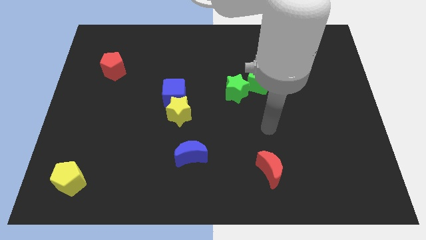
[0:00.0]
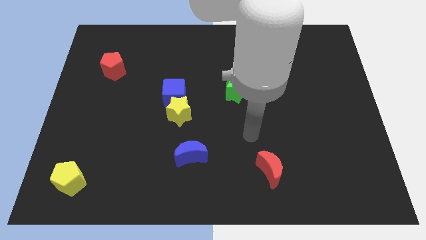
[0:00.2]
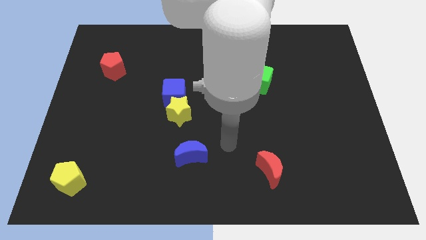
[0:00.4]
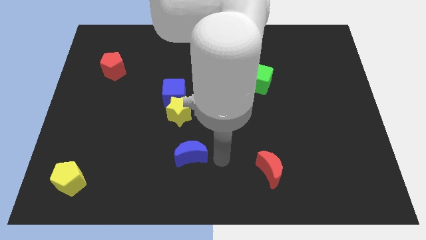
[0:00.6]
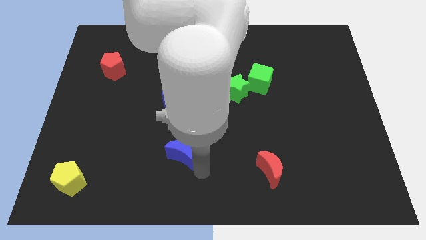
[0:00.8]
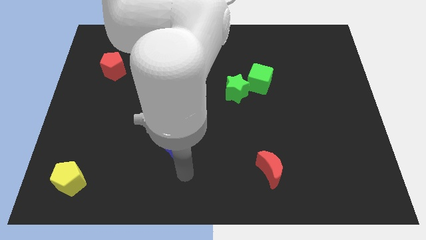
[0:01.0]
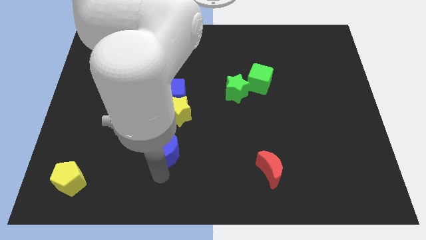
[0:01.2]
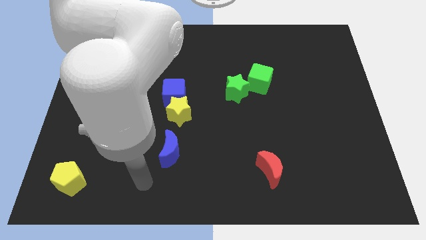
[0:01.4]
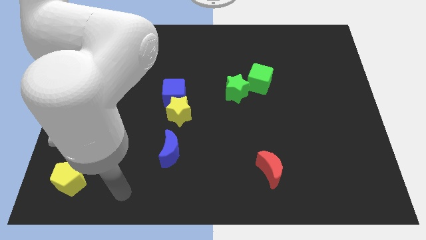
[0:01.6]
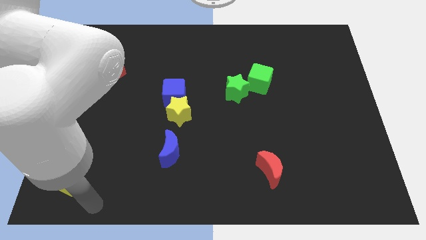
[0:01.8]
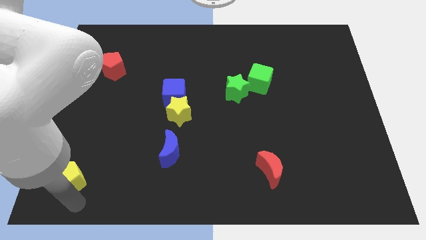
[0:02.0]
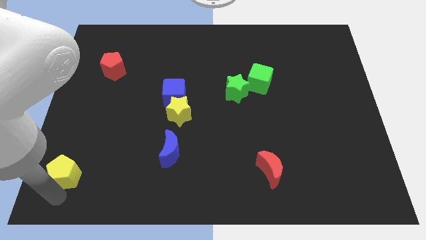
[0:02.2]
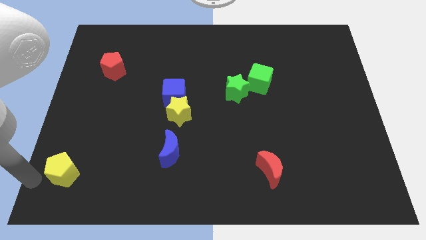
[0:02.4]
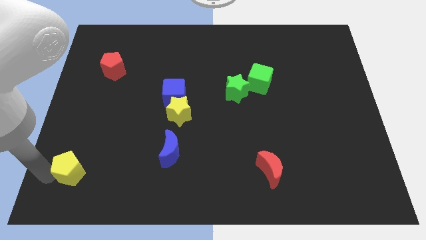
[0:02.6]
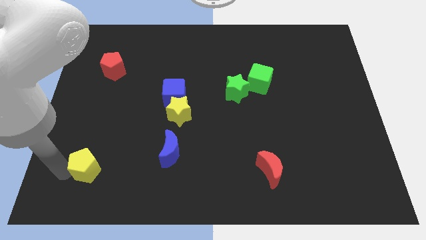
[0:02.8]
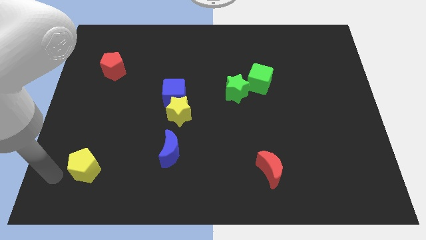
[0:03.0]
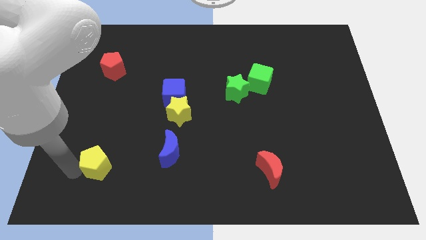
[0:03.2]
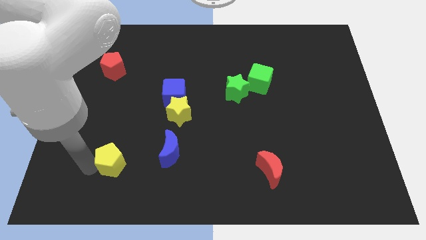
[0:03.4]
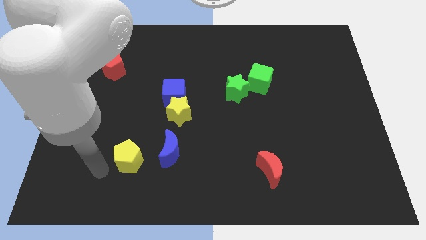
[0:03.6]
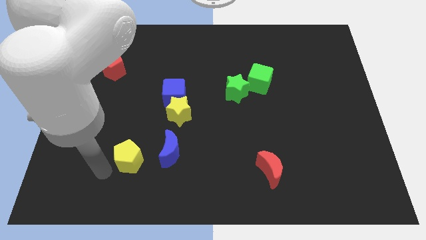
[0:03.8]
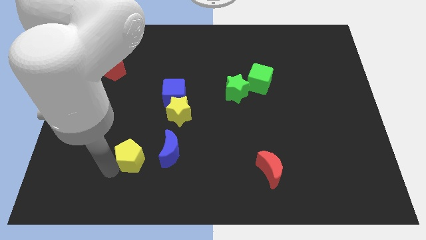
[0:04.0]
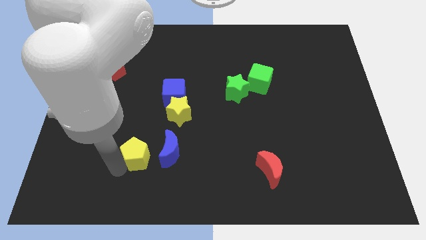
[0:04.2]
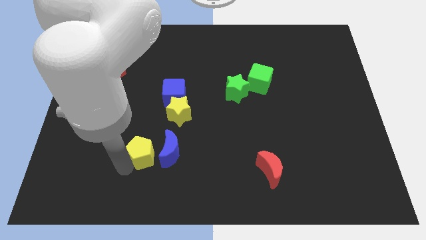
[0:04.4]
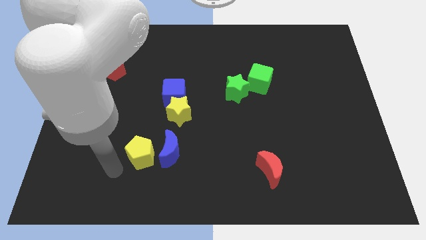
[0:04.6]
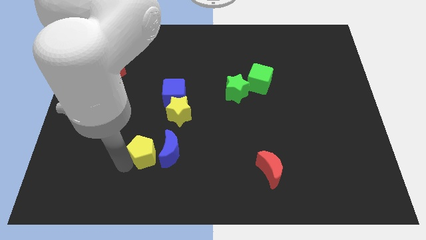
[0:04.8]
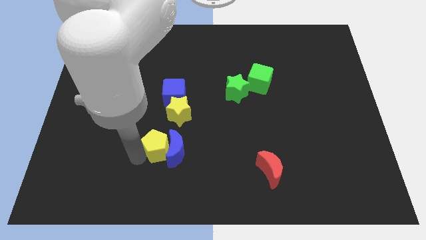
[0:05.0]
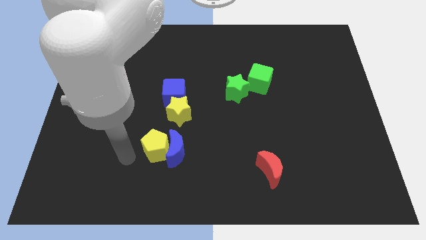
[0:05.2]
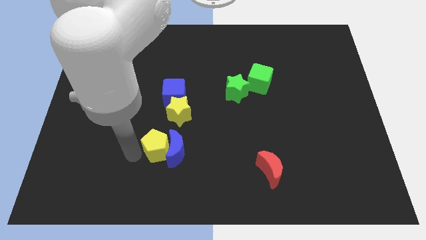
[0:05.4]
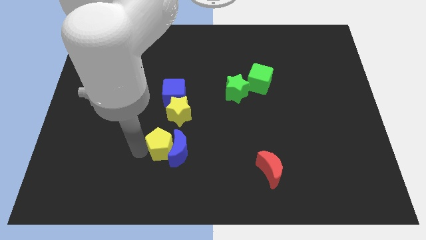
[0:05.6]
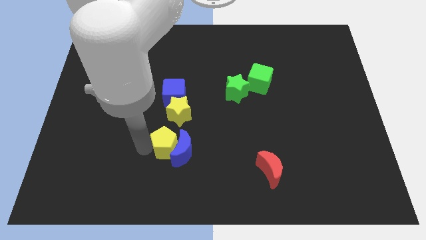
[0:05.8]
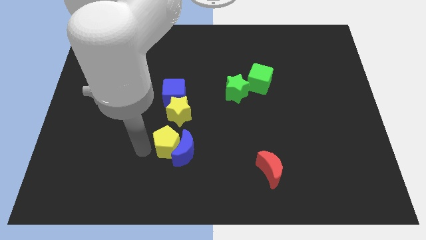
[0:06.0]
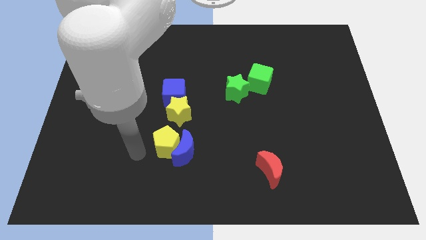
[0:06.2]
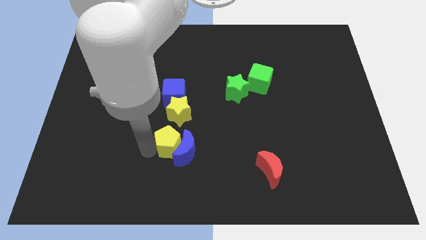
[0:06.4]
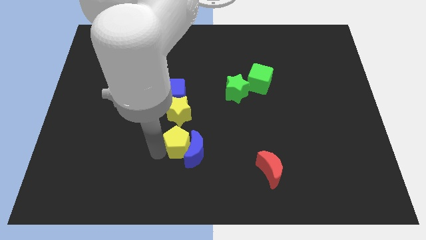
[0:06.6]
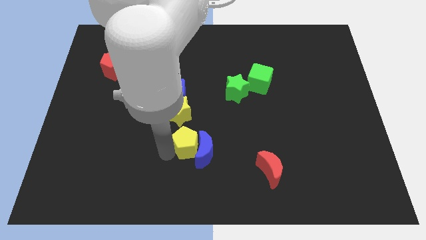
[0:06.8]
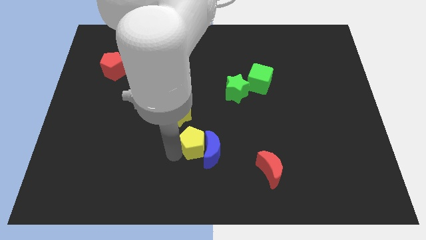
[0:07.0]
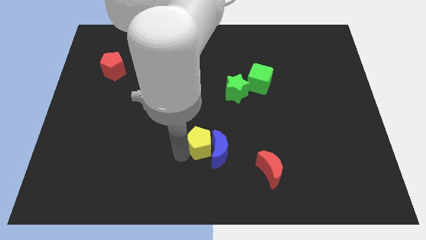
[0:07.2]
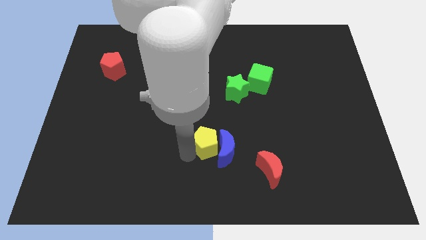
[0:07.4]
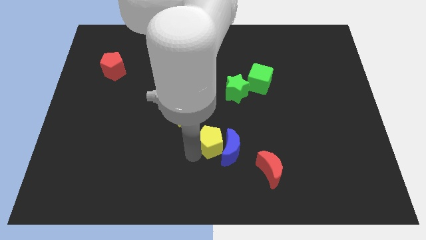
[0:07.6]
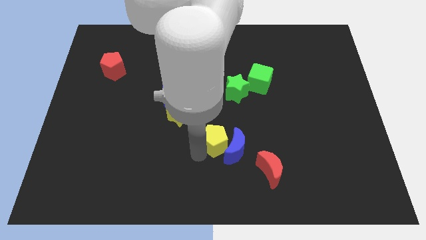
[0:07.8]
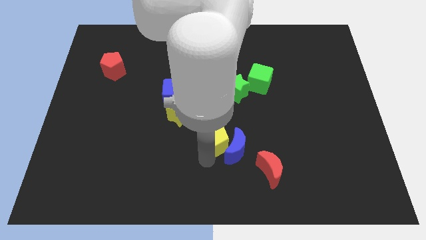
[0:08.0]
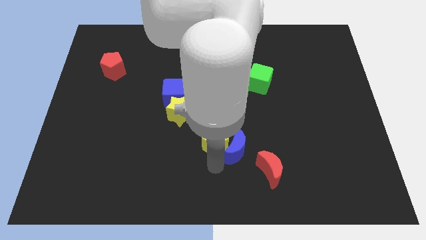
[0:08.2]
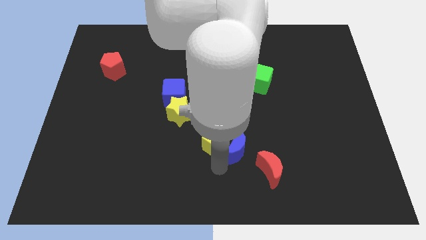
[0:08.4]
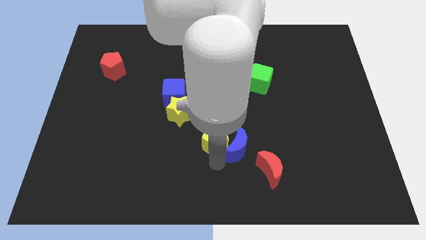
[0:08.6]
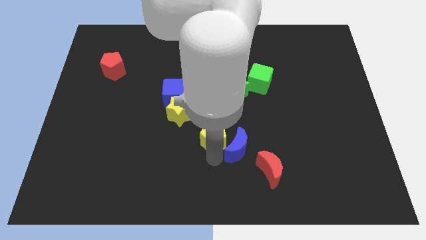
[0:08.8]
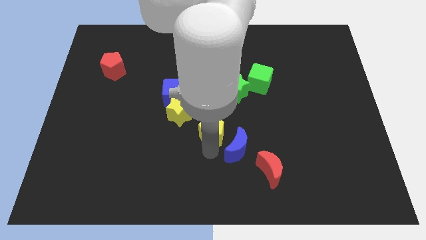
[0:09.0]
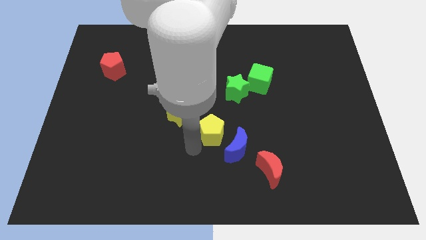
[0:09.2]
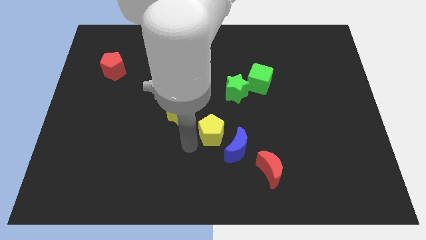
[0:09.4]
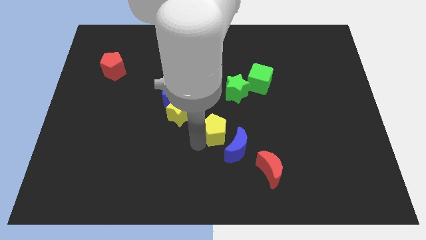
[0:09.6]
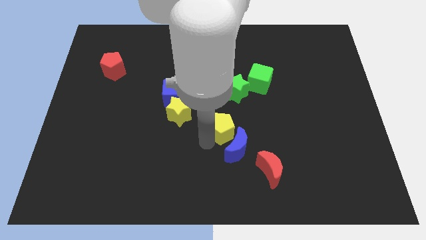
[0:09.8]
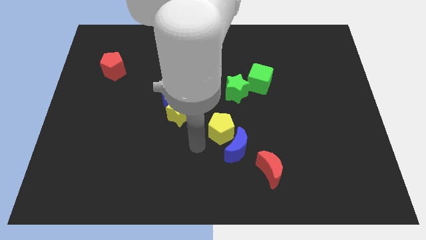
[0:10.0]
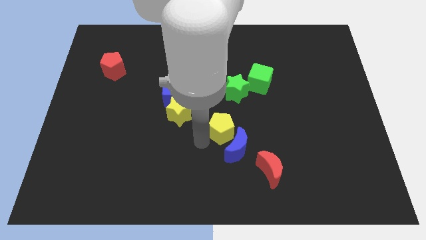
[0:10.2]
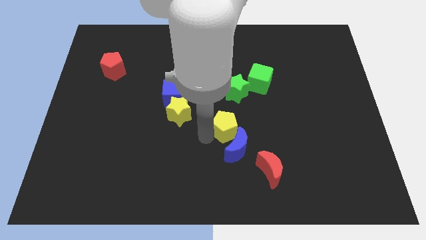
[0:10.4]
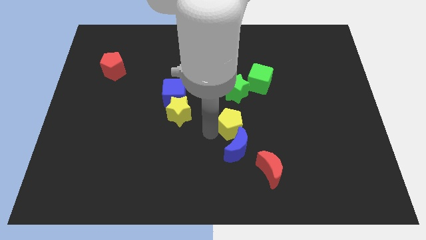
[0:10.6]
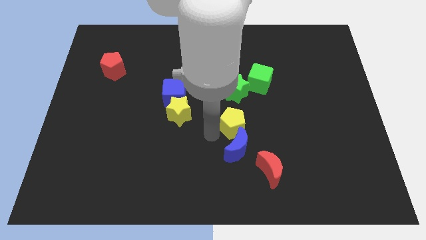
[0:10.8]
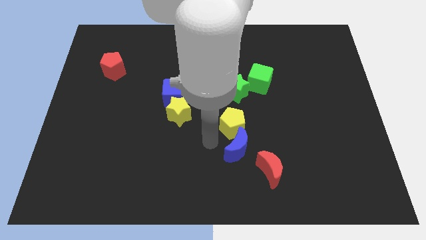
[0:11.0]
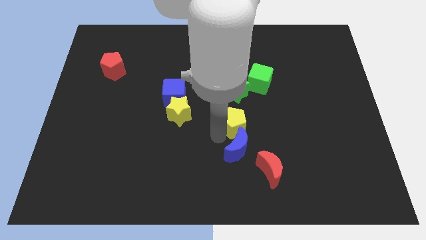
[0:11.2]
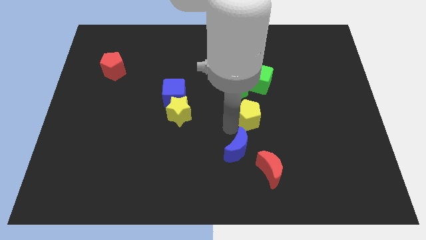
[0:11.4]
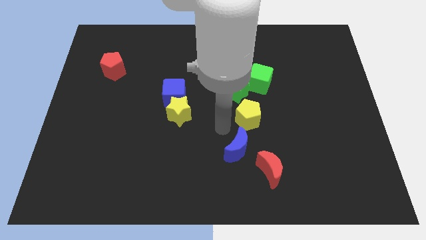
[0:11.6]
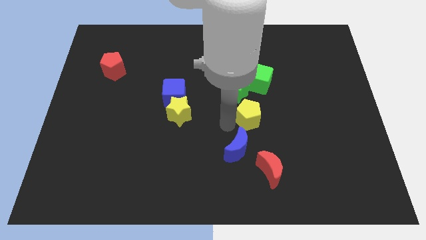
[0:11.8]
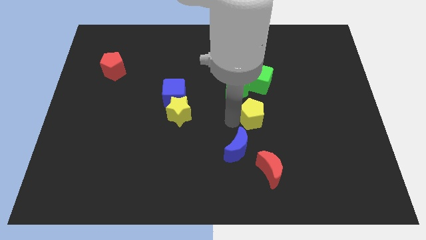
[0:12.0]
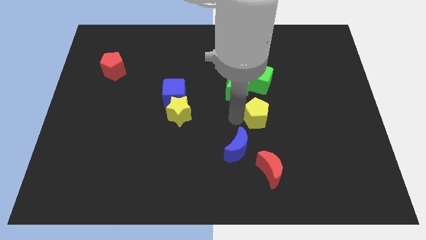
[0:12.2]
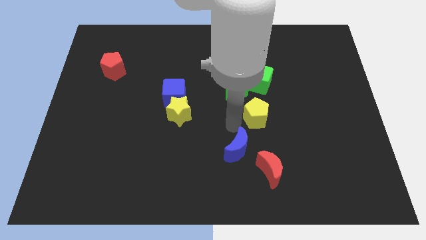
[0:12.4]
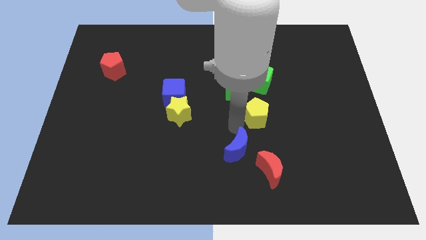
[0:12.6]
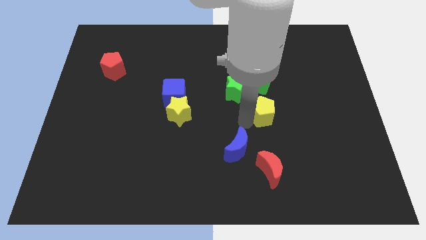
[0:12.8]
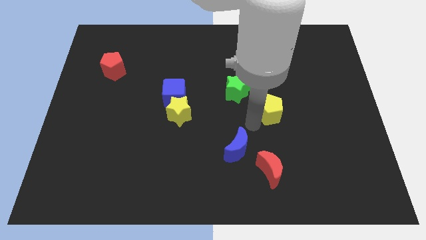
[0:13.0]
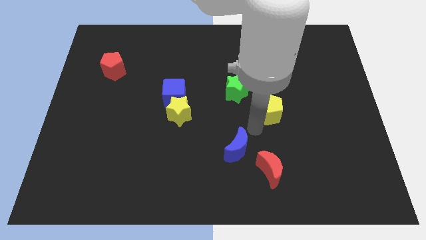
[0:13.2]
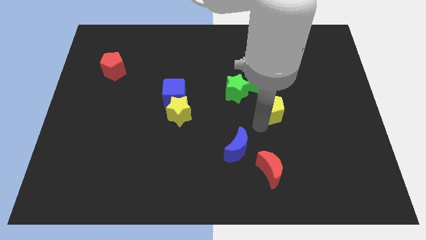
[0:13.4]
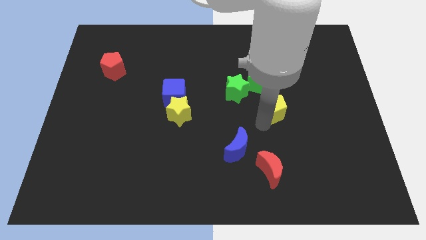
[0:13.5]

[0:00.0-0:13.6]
slide the yellow pentagon to the bottom right side of the green cube

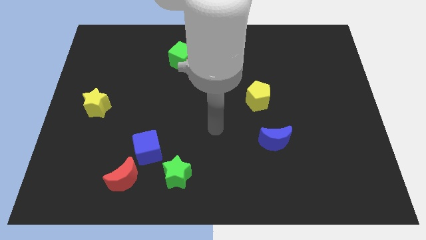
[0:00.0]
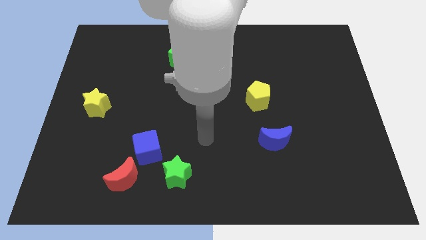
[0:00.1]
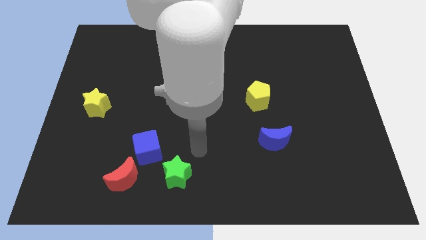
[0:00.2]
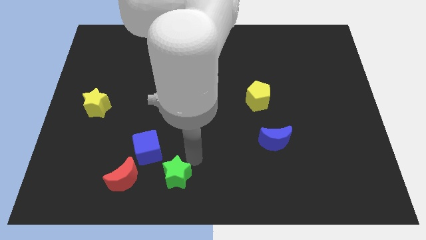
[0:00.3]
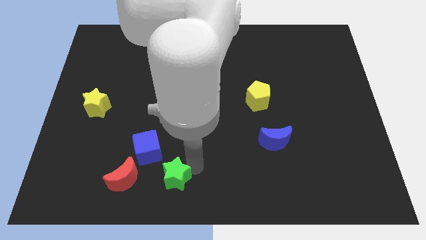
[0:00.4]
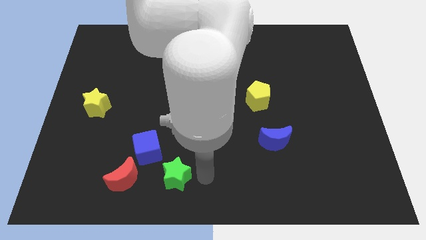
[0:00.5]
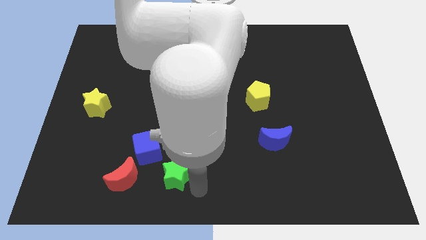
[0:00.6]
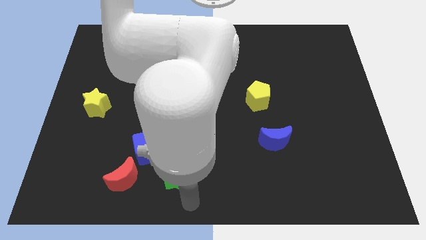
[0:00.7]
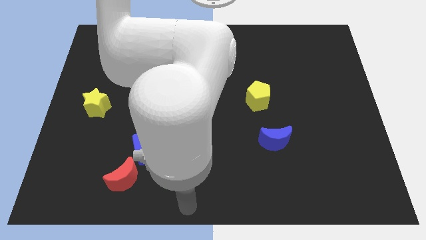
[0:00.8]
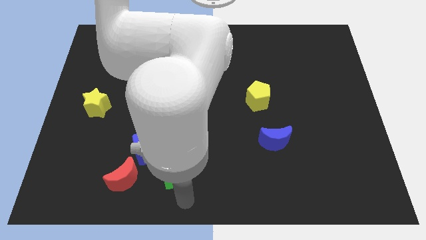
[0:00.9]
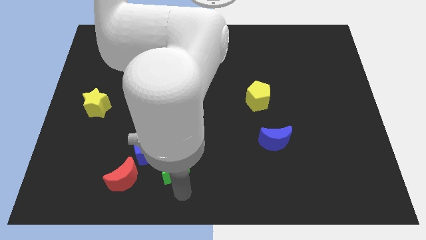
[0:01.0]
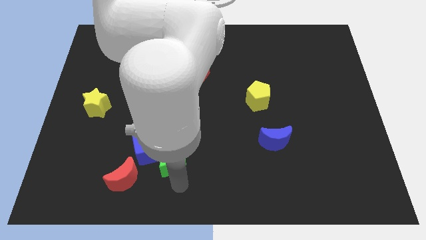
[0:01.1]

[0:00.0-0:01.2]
put the green star to the top right of the red moon
